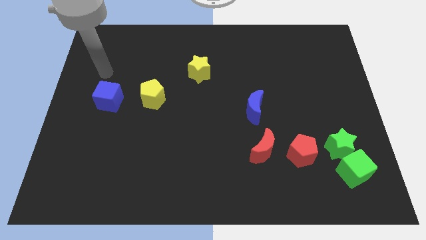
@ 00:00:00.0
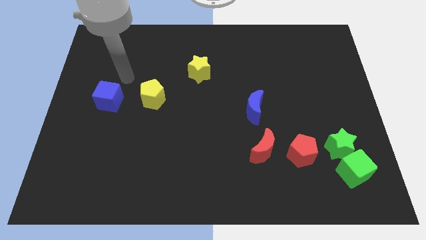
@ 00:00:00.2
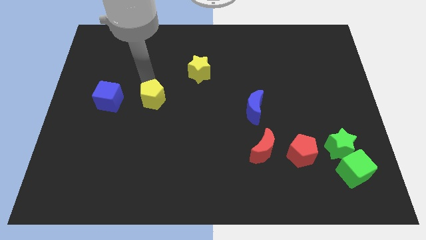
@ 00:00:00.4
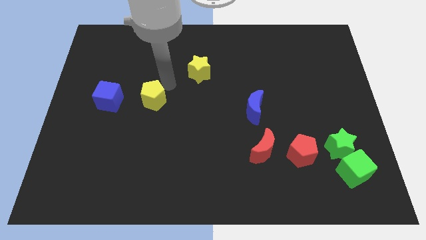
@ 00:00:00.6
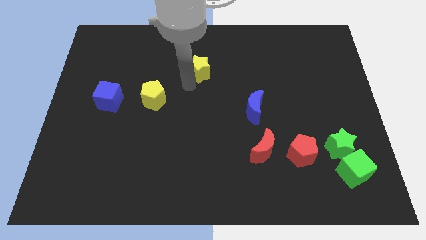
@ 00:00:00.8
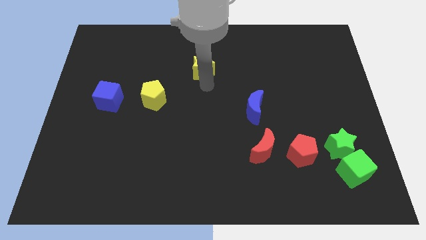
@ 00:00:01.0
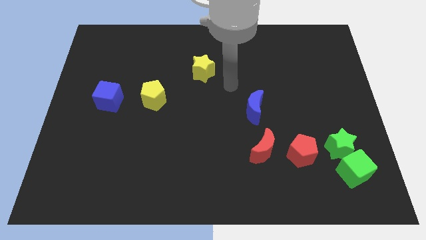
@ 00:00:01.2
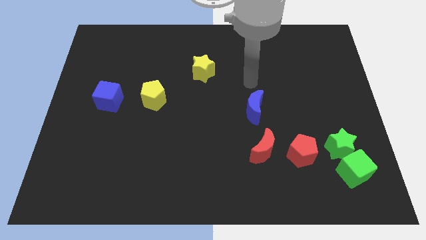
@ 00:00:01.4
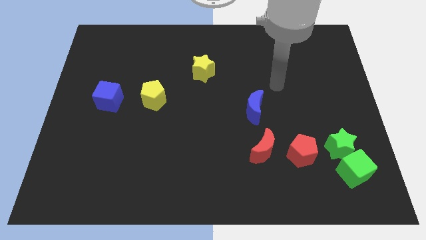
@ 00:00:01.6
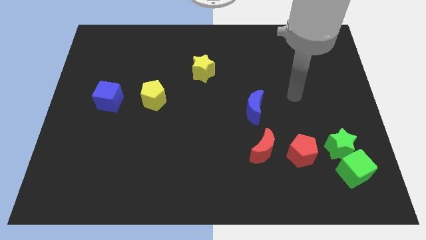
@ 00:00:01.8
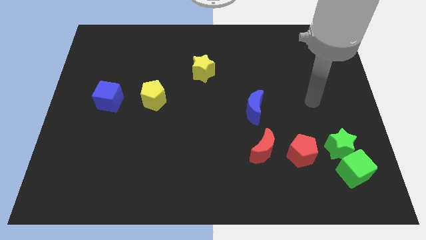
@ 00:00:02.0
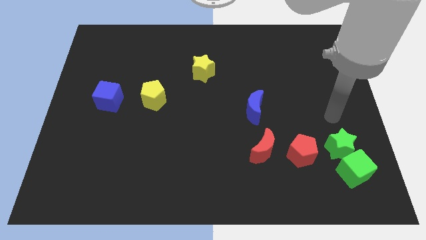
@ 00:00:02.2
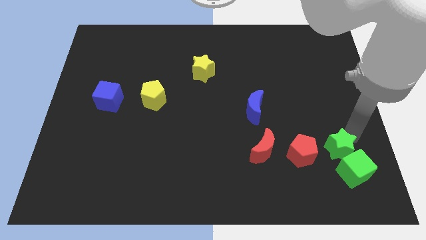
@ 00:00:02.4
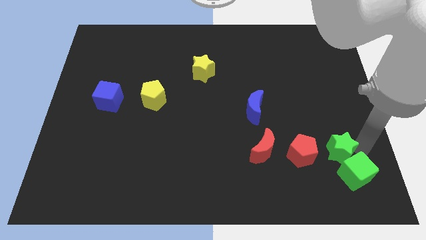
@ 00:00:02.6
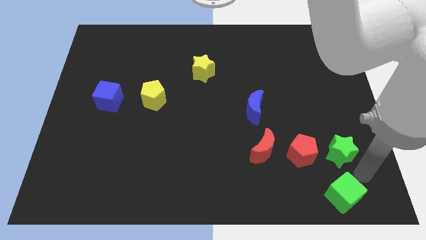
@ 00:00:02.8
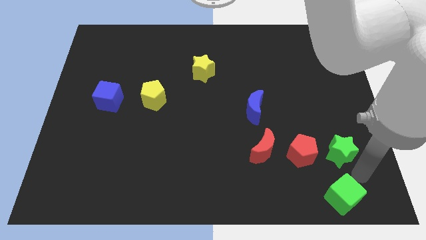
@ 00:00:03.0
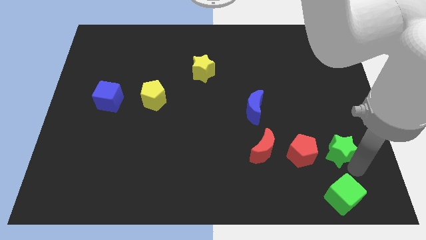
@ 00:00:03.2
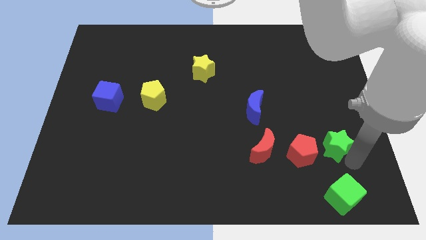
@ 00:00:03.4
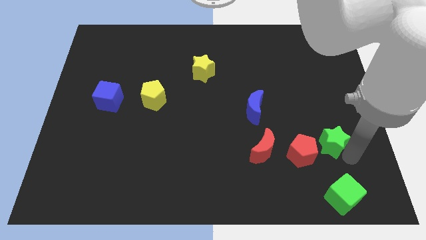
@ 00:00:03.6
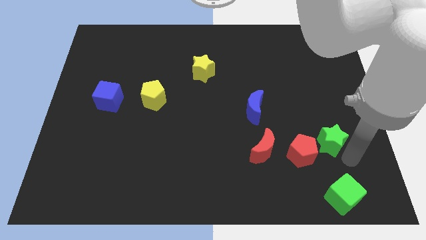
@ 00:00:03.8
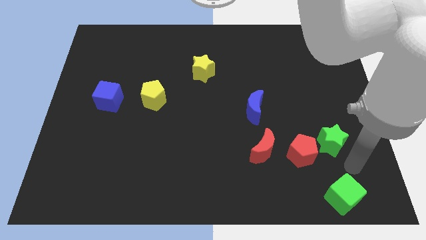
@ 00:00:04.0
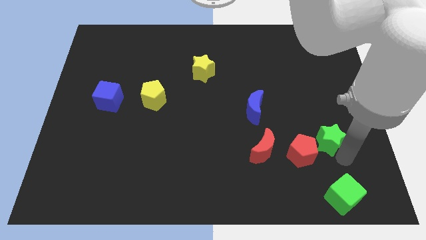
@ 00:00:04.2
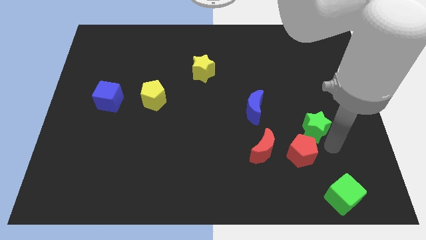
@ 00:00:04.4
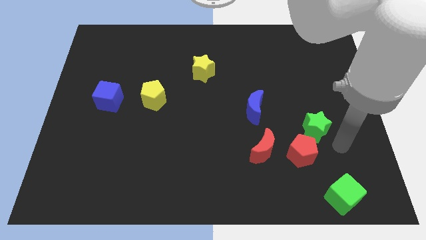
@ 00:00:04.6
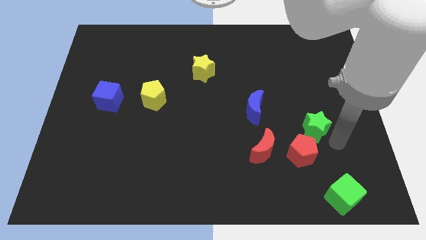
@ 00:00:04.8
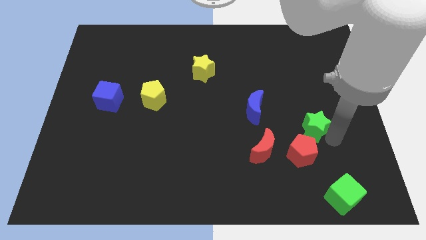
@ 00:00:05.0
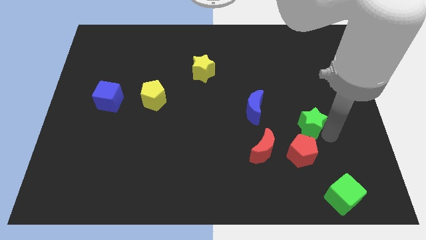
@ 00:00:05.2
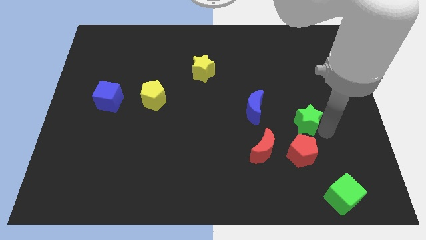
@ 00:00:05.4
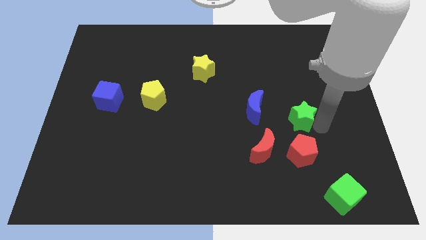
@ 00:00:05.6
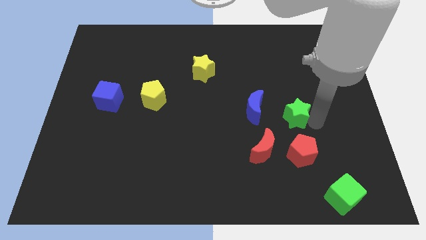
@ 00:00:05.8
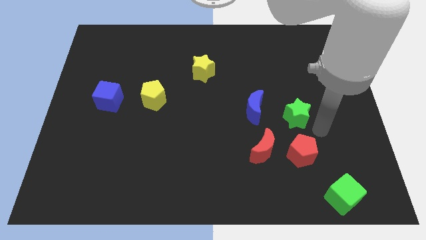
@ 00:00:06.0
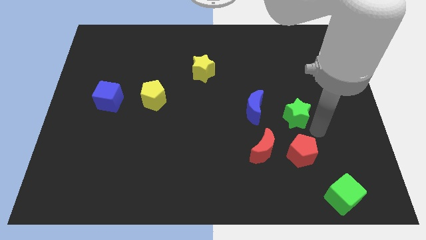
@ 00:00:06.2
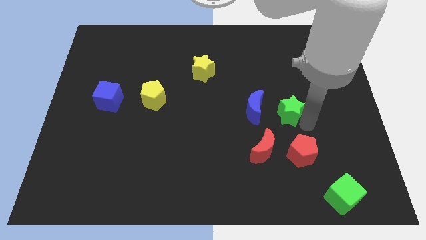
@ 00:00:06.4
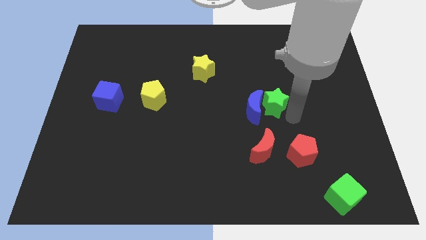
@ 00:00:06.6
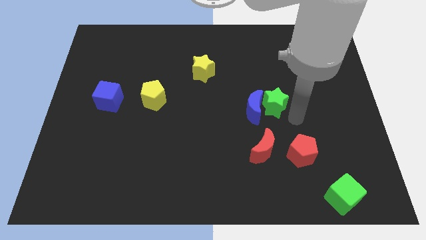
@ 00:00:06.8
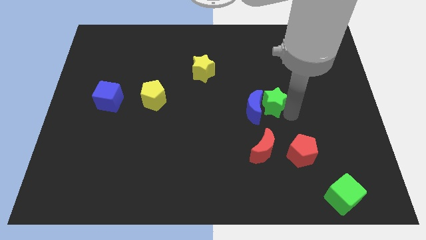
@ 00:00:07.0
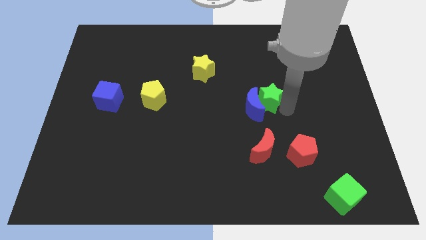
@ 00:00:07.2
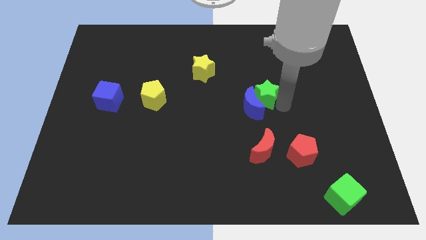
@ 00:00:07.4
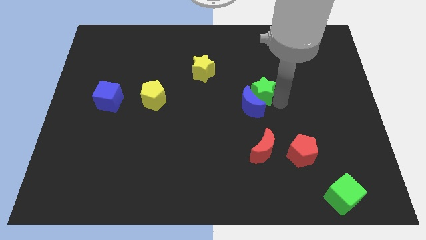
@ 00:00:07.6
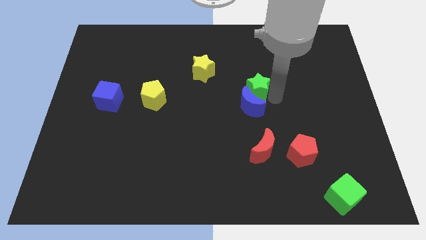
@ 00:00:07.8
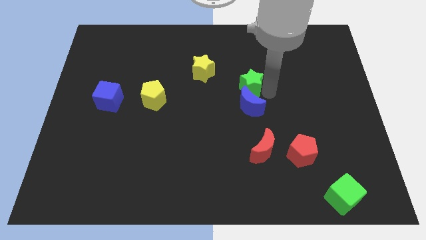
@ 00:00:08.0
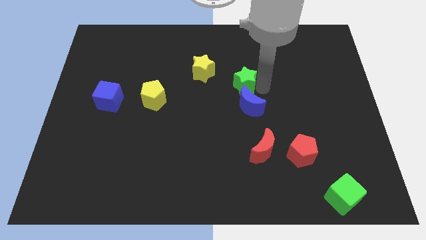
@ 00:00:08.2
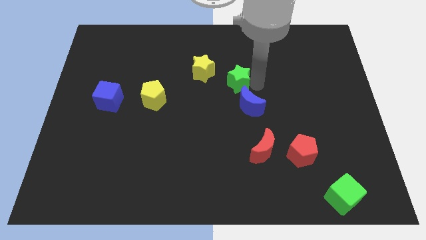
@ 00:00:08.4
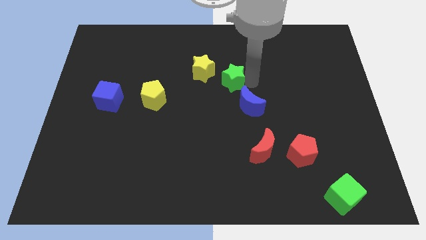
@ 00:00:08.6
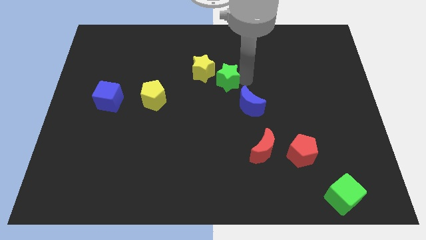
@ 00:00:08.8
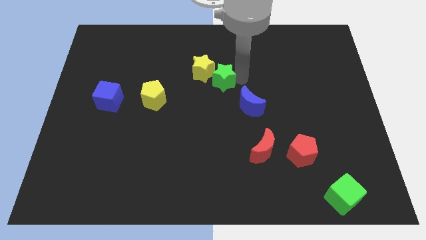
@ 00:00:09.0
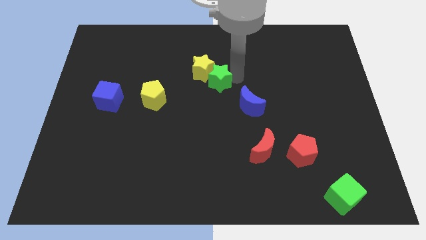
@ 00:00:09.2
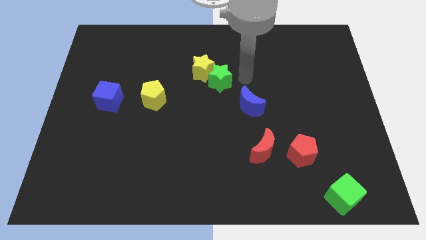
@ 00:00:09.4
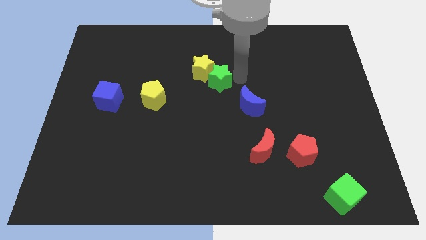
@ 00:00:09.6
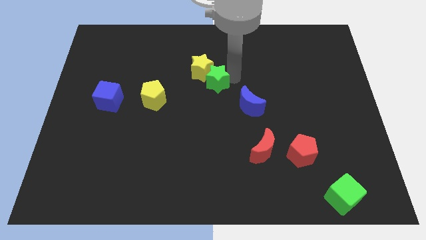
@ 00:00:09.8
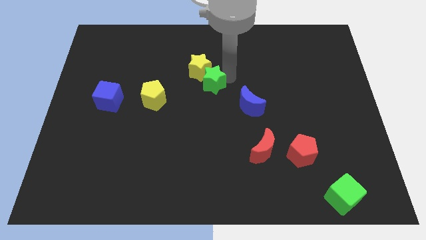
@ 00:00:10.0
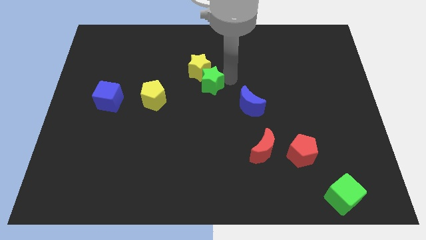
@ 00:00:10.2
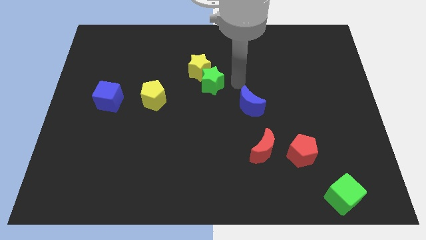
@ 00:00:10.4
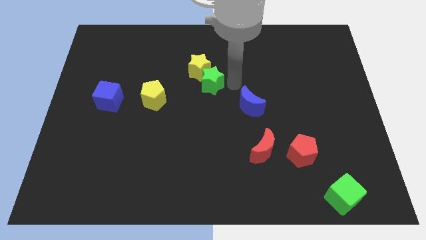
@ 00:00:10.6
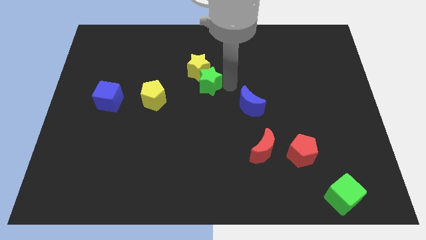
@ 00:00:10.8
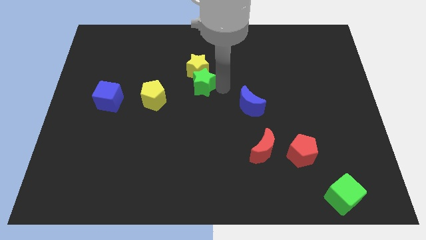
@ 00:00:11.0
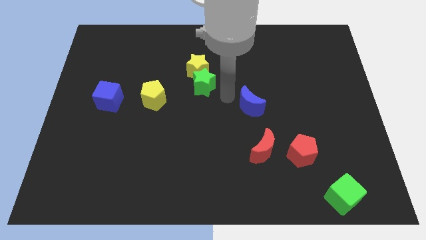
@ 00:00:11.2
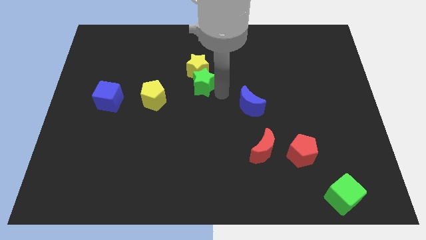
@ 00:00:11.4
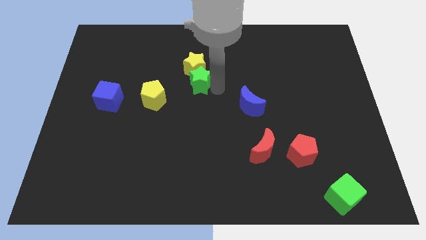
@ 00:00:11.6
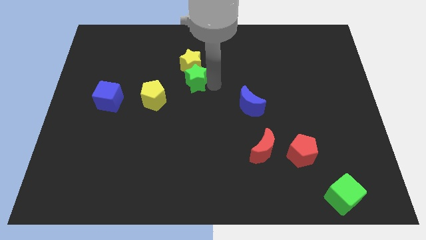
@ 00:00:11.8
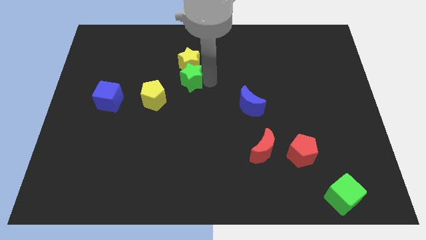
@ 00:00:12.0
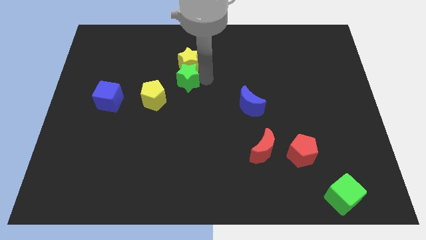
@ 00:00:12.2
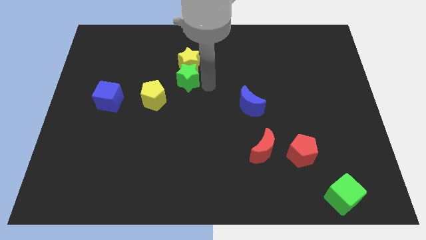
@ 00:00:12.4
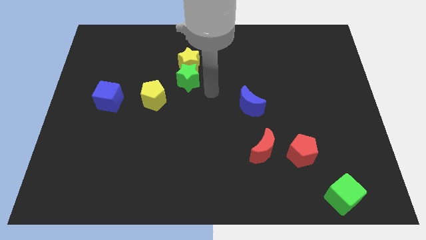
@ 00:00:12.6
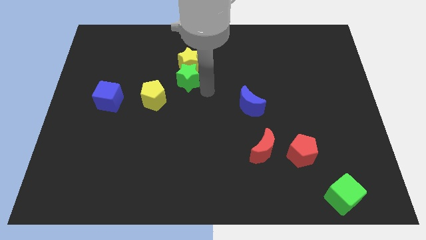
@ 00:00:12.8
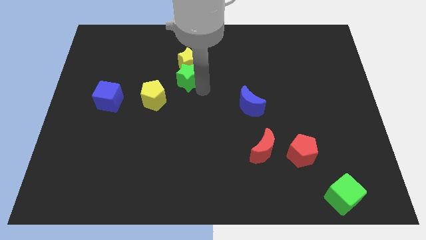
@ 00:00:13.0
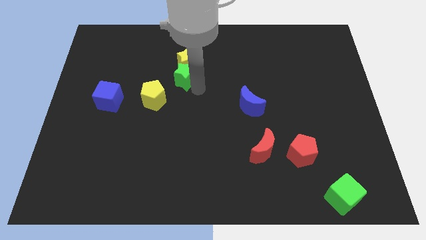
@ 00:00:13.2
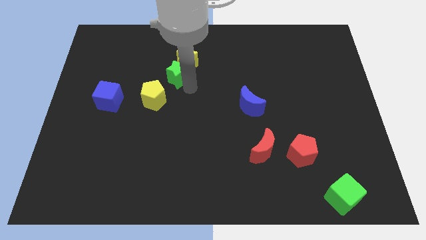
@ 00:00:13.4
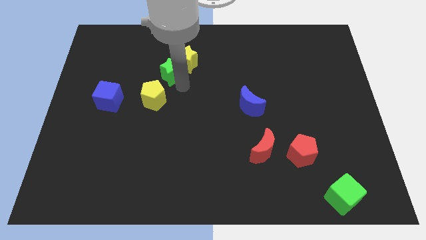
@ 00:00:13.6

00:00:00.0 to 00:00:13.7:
slide the green star to the left side of the yellow star
